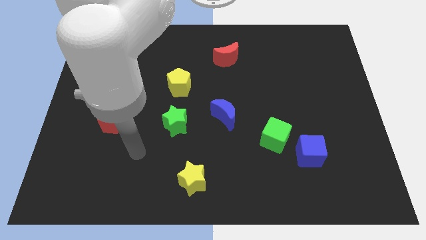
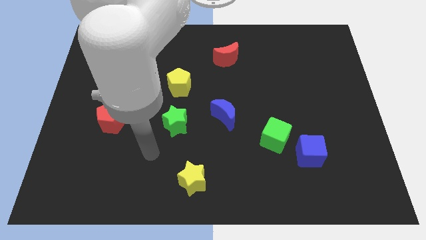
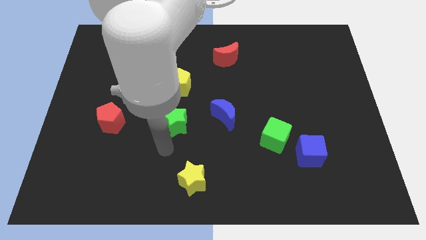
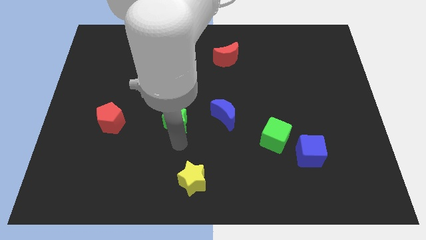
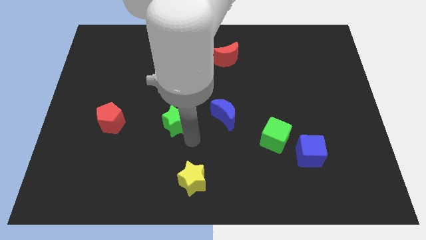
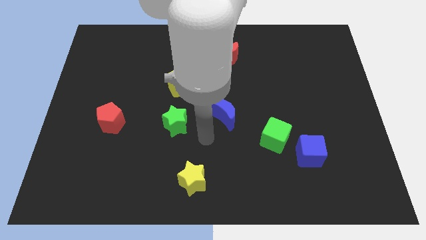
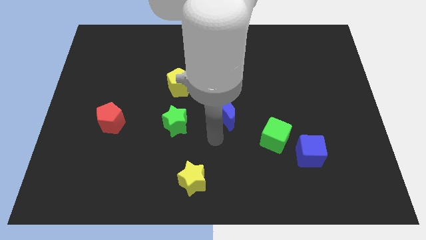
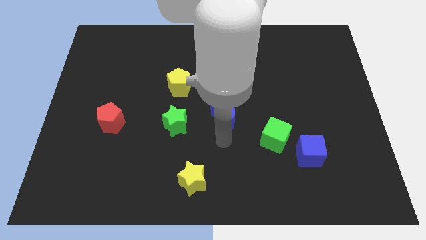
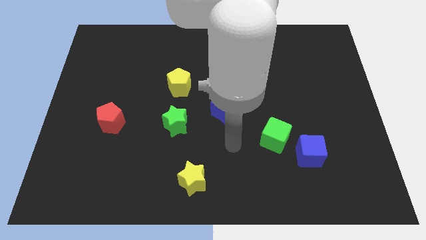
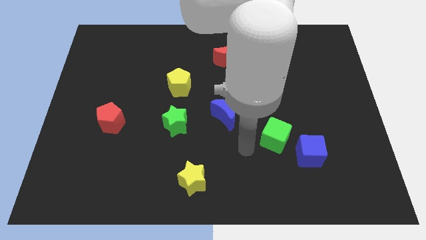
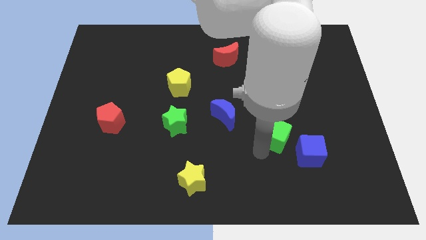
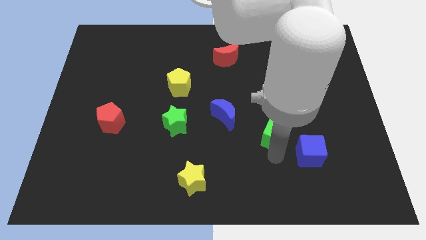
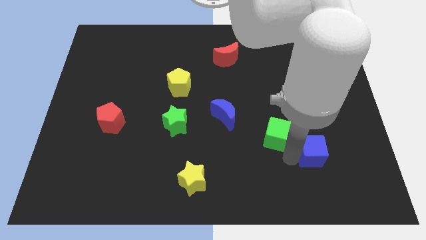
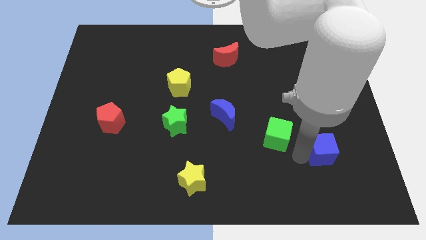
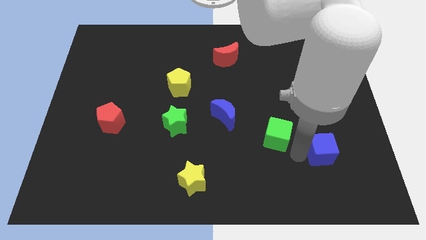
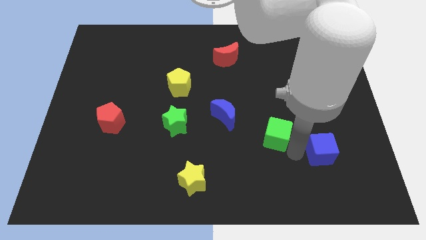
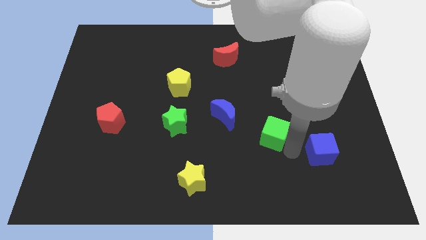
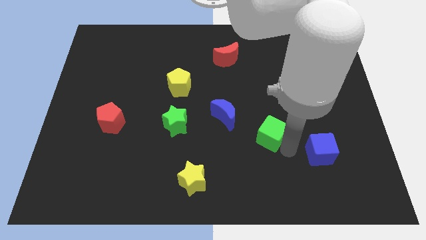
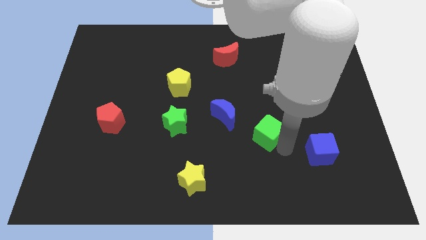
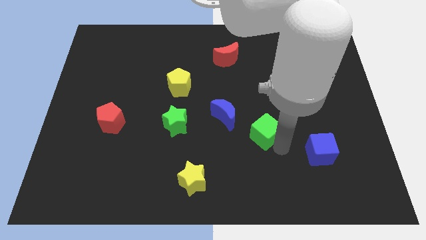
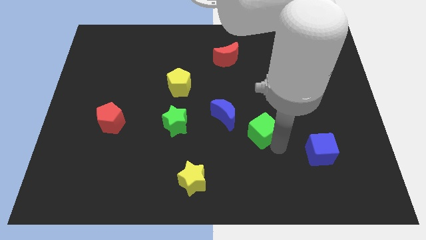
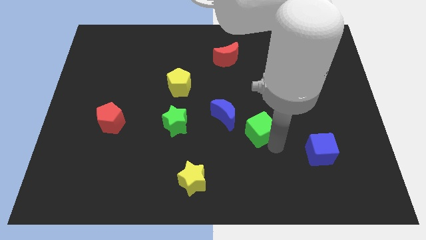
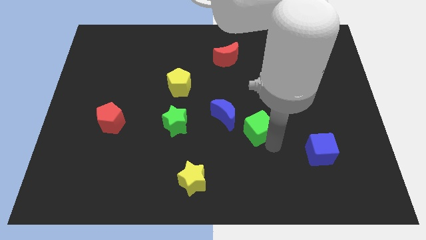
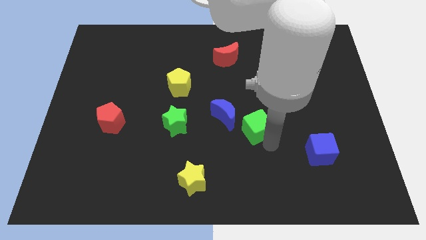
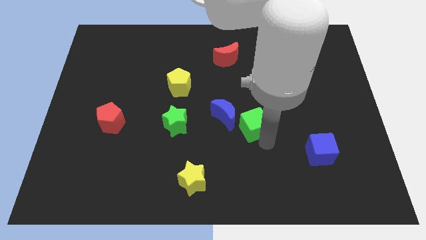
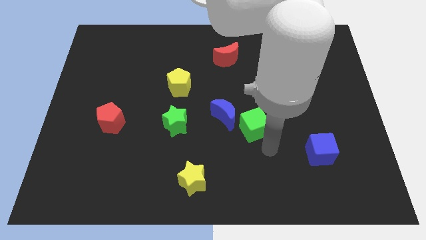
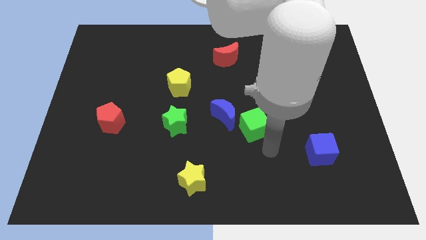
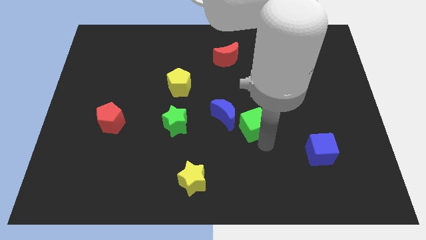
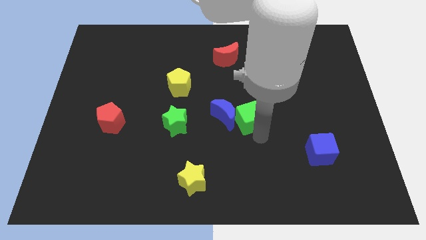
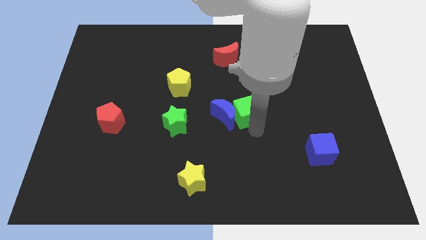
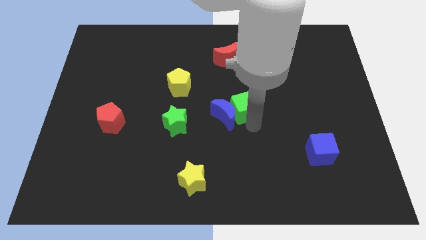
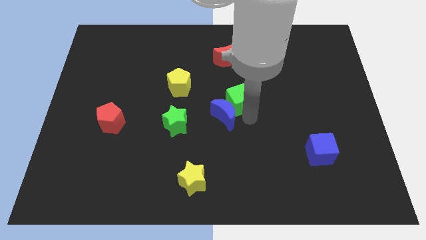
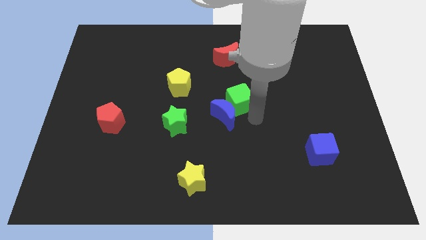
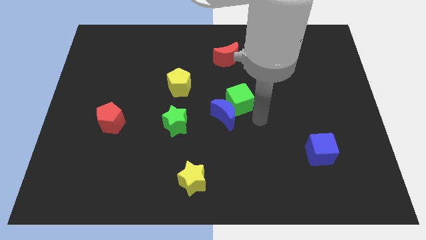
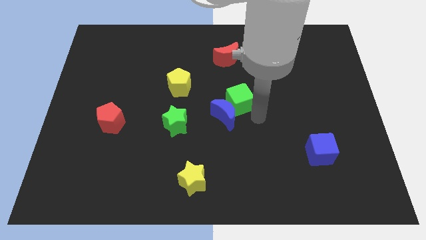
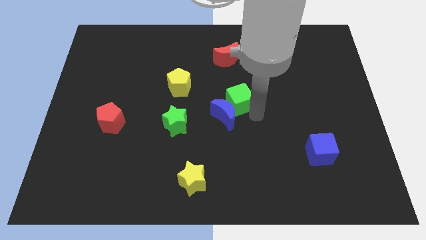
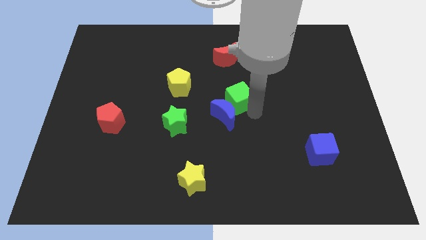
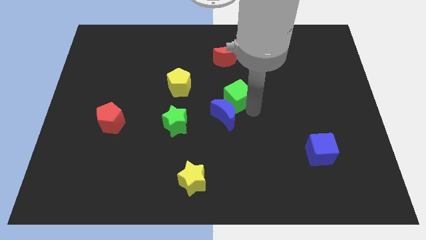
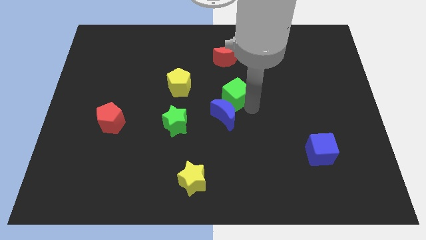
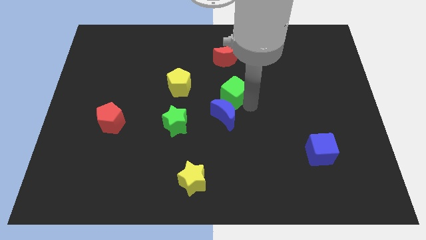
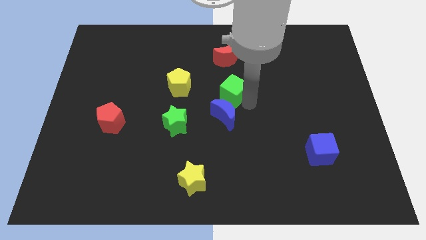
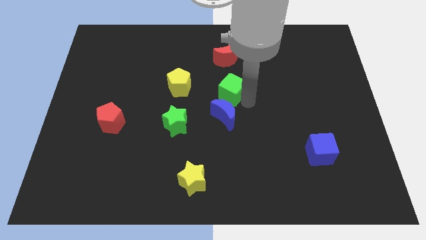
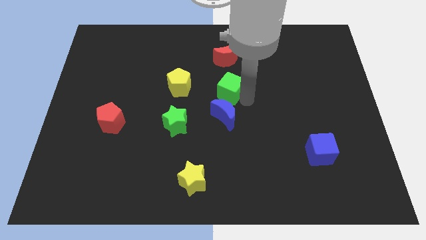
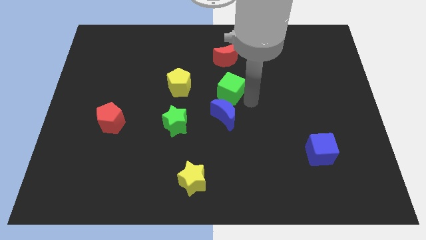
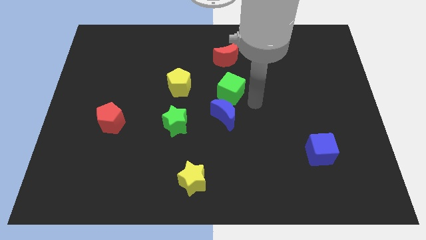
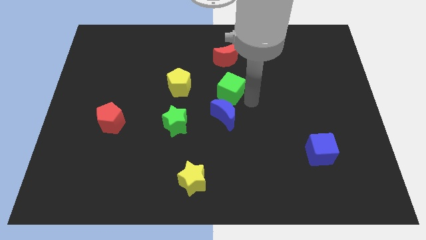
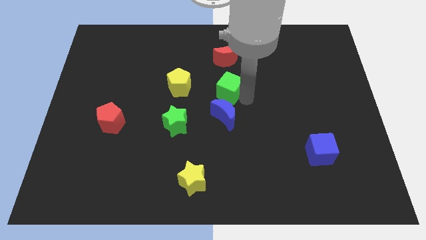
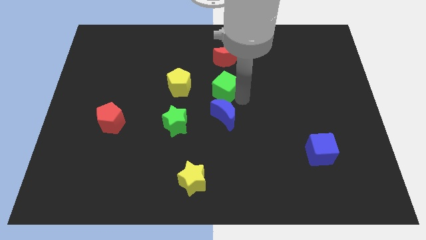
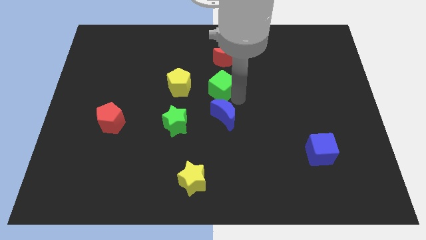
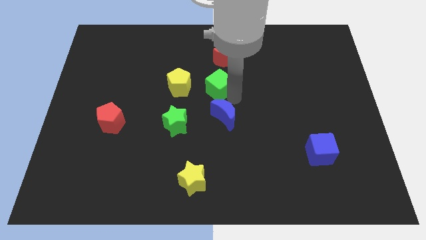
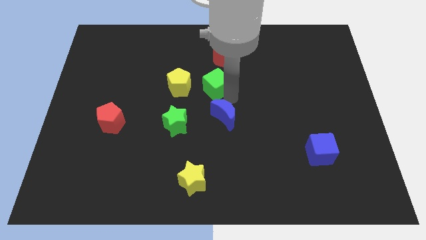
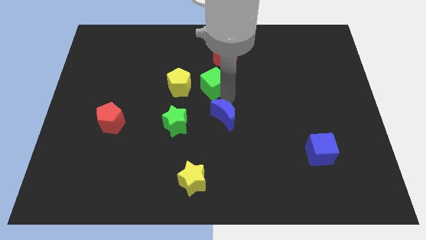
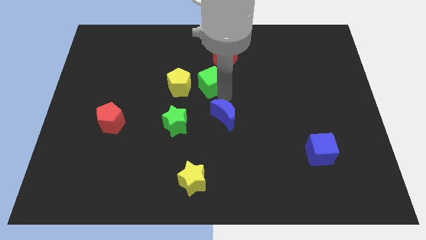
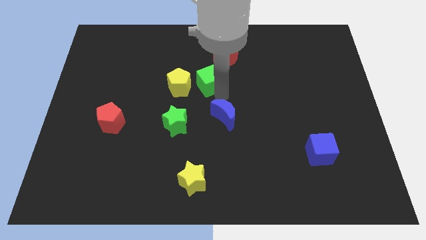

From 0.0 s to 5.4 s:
push the green cube diagonally up and to the right of the yellow pentagon

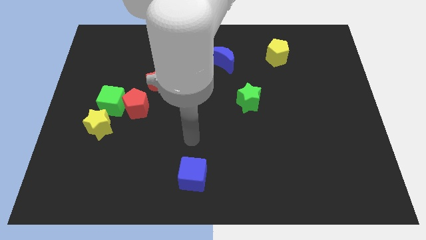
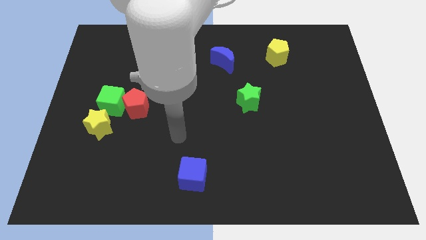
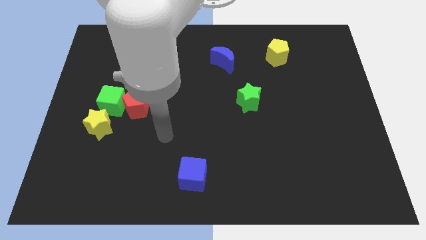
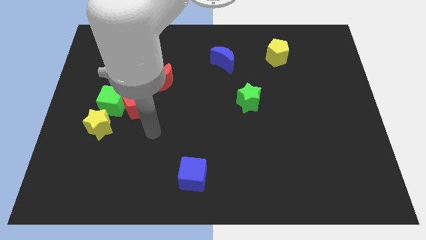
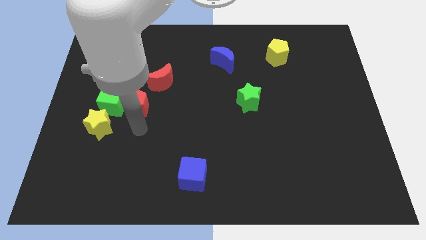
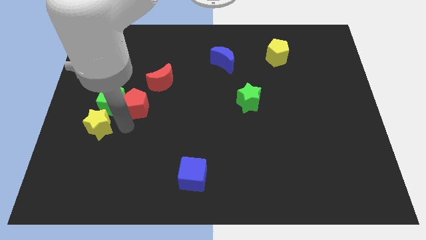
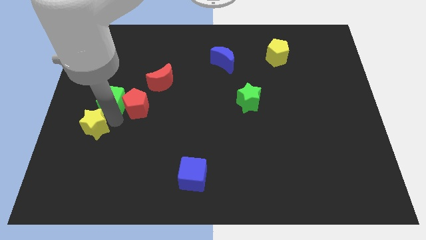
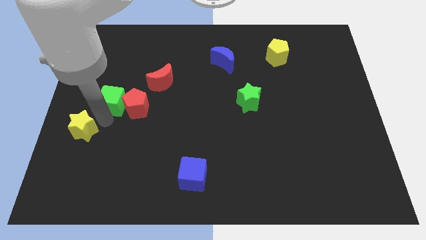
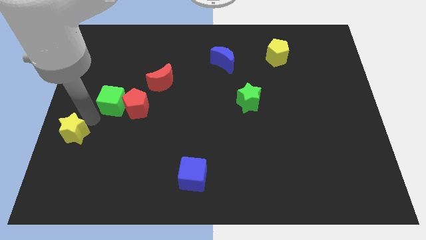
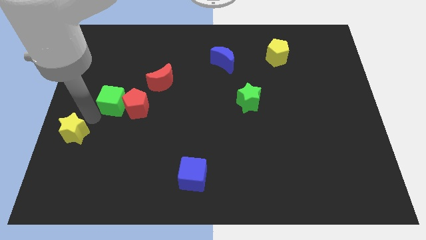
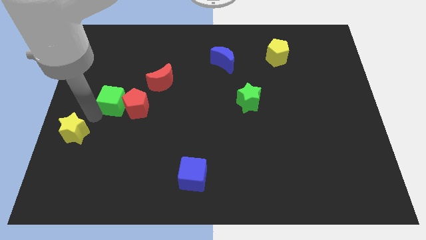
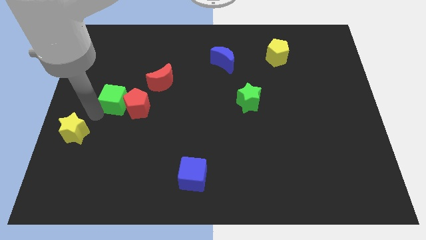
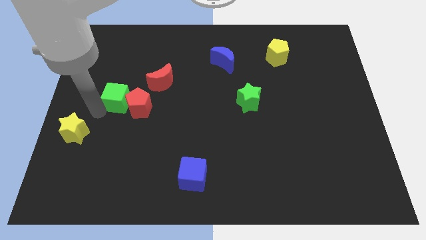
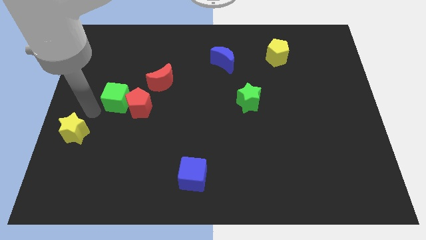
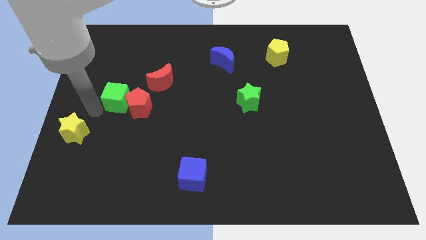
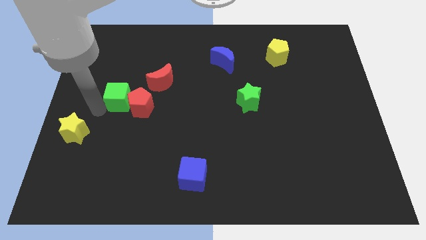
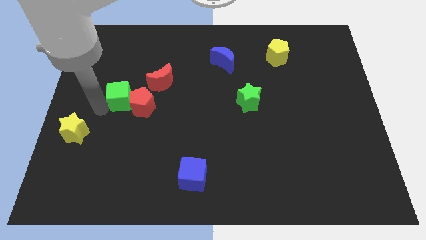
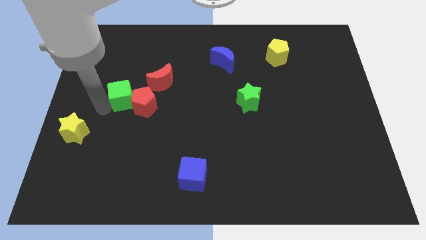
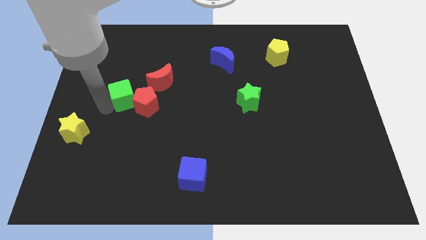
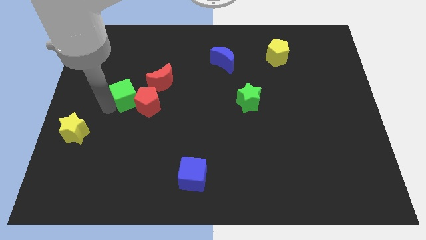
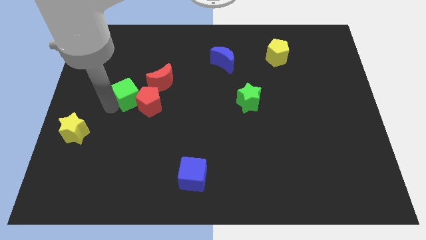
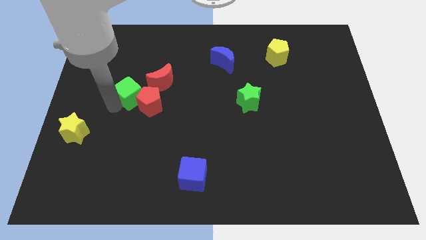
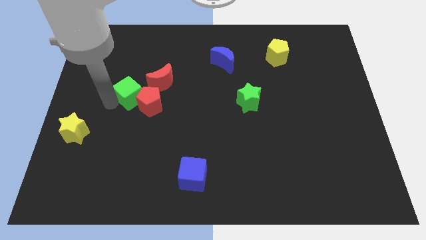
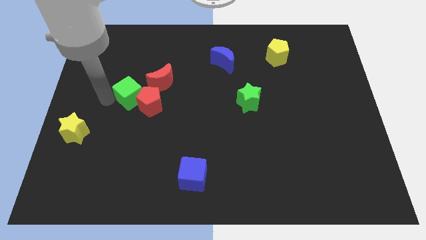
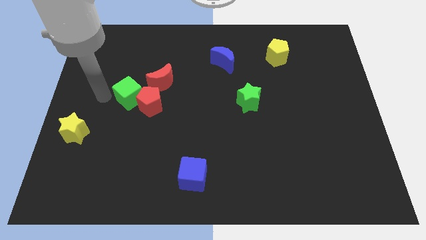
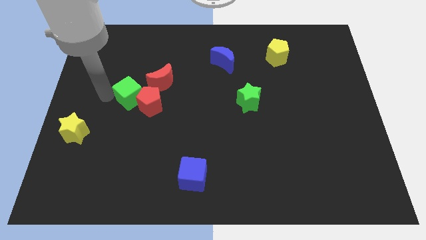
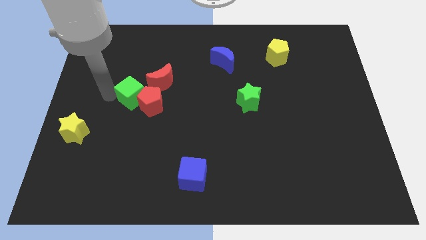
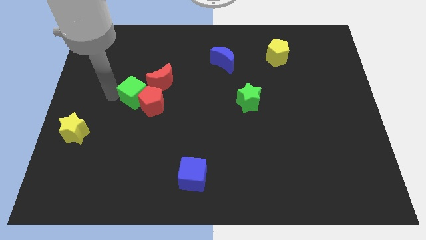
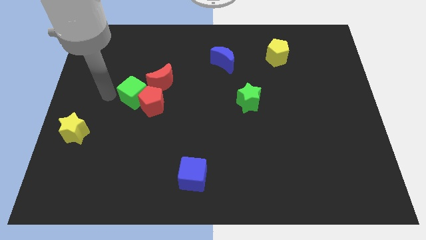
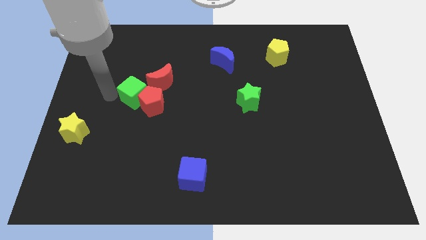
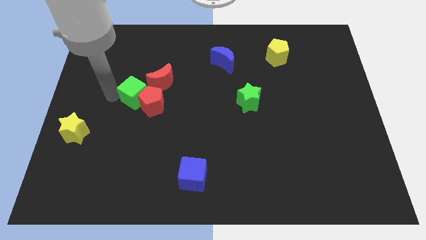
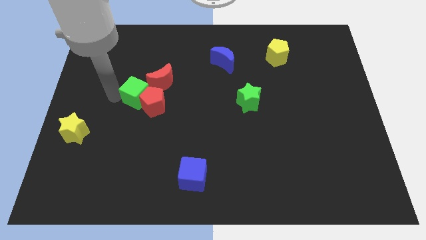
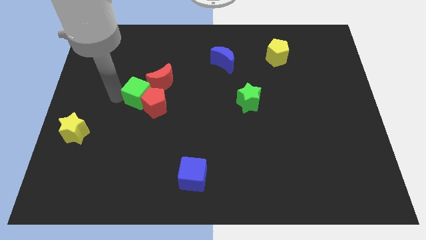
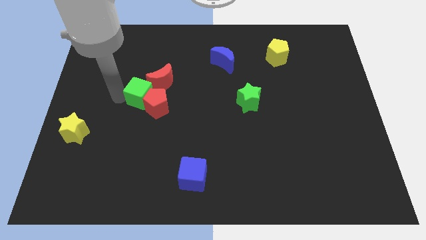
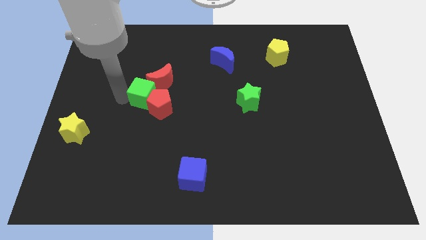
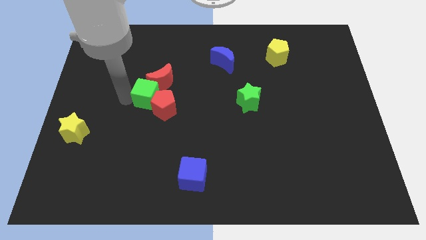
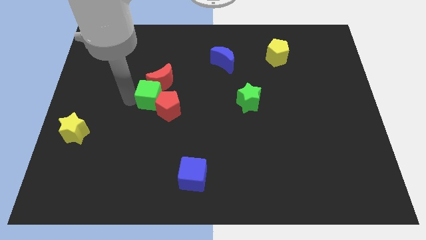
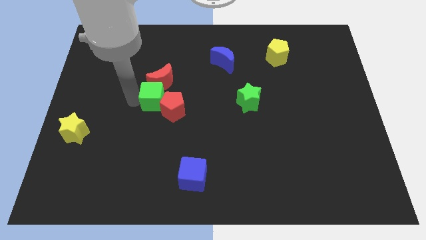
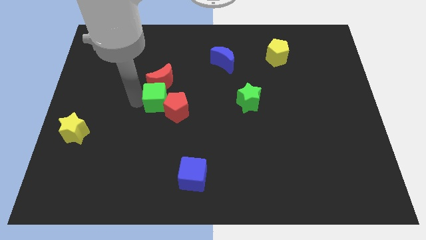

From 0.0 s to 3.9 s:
move the green cube to the bottom right of the red moon
